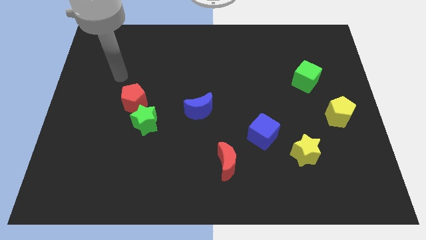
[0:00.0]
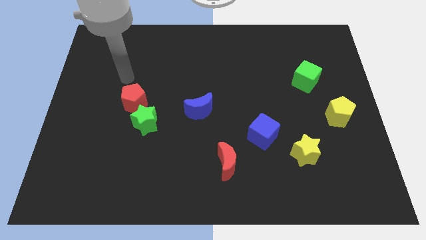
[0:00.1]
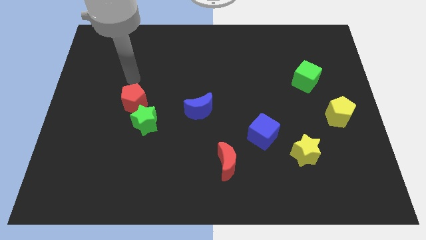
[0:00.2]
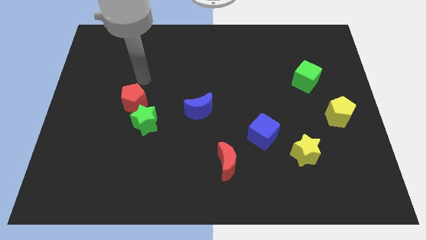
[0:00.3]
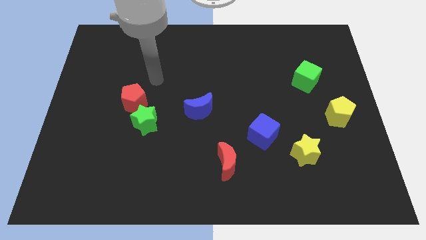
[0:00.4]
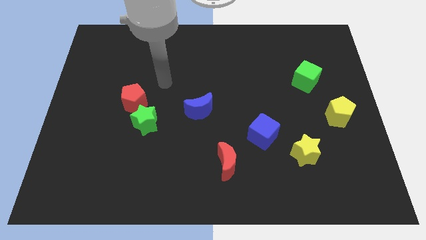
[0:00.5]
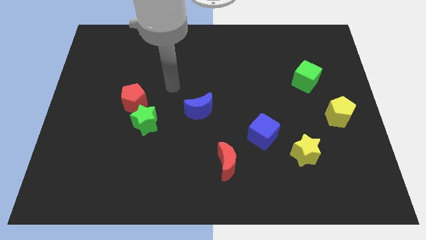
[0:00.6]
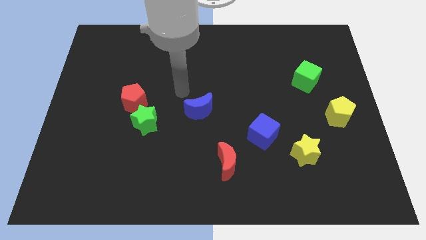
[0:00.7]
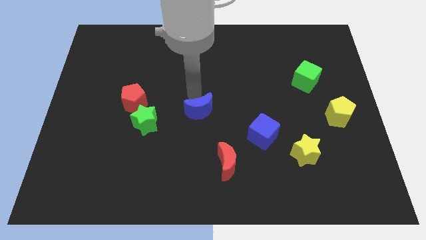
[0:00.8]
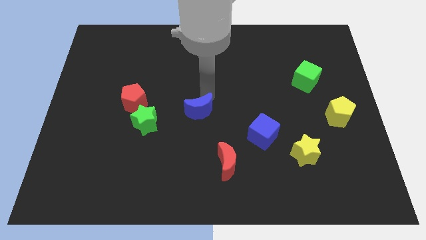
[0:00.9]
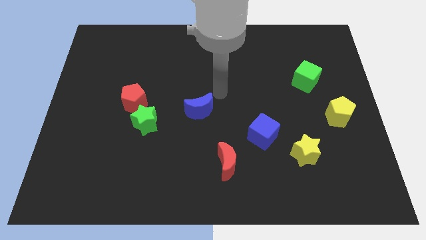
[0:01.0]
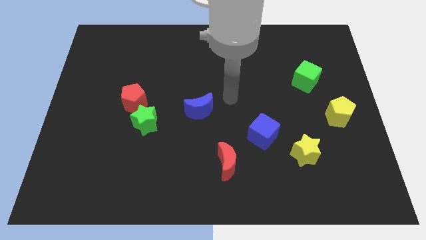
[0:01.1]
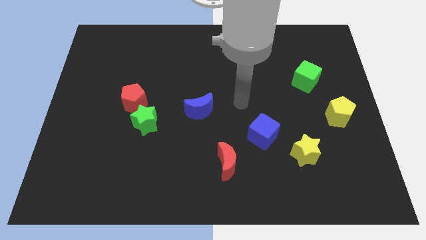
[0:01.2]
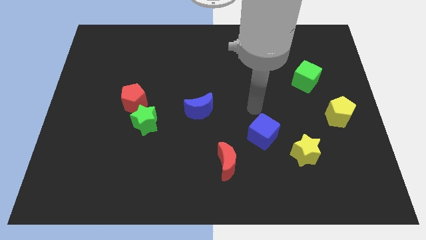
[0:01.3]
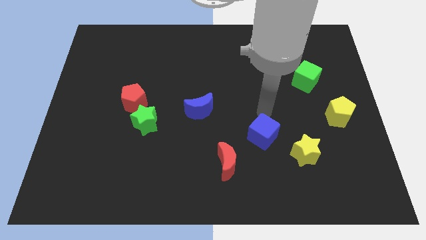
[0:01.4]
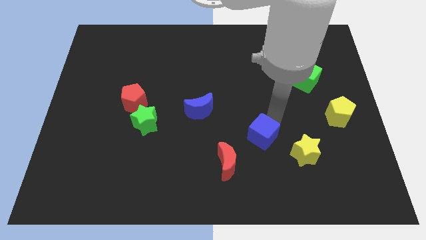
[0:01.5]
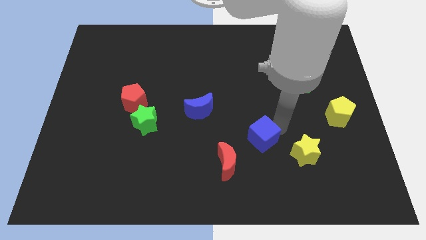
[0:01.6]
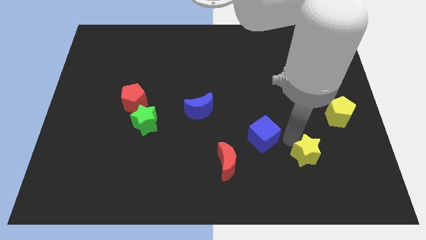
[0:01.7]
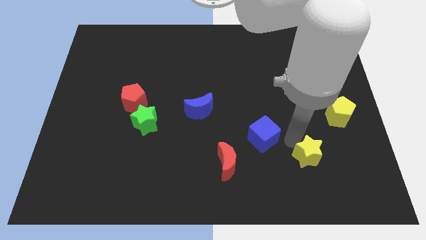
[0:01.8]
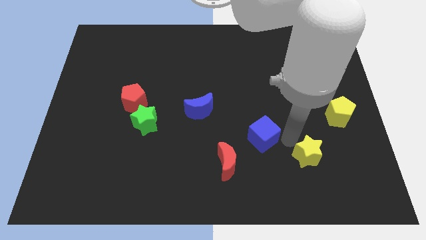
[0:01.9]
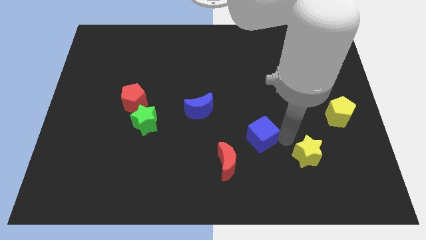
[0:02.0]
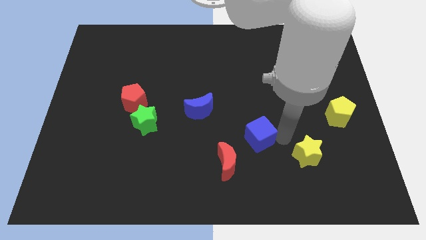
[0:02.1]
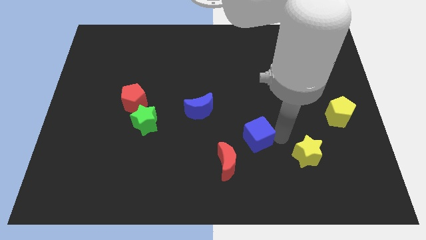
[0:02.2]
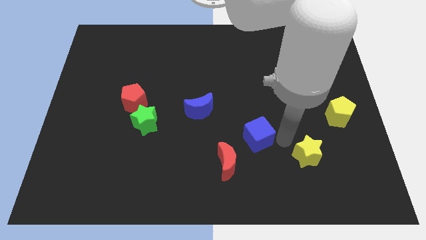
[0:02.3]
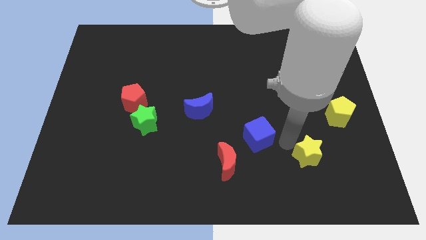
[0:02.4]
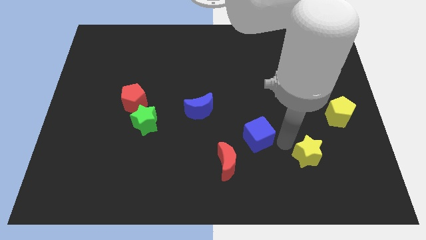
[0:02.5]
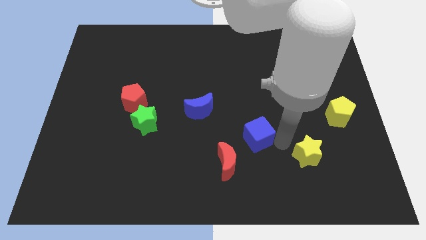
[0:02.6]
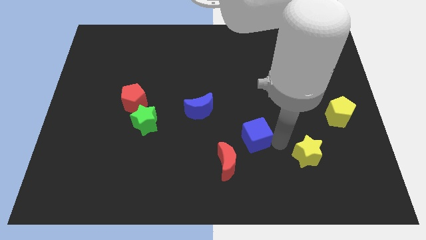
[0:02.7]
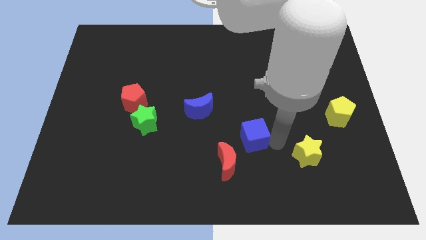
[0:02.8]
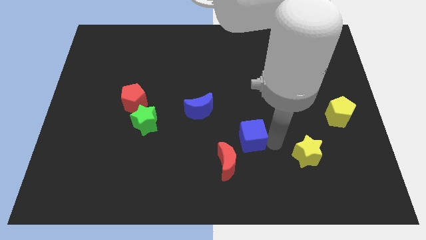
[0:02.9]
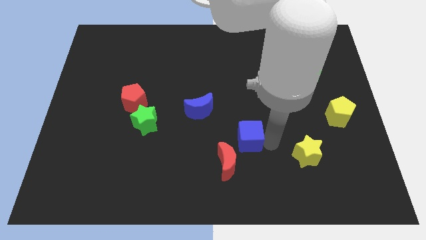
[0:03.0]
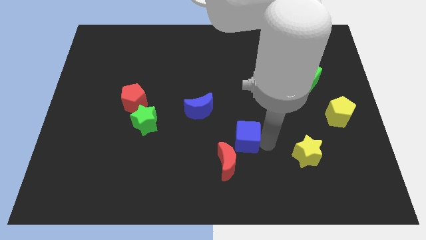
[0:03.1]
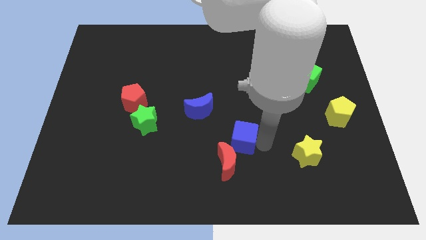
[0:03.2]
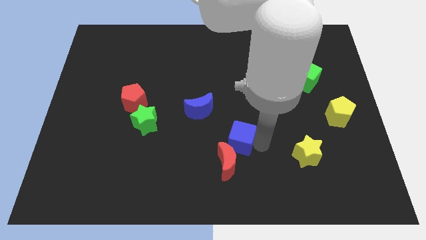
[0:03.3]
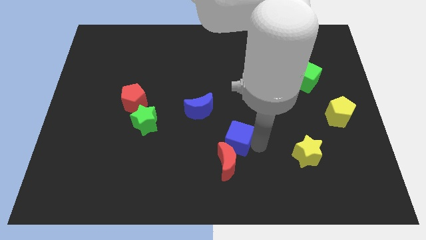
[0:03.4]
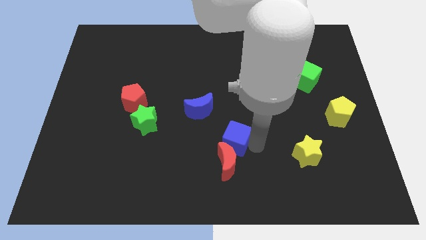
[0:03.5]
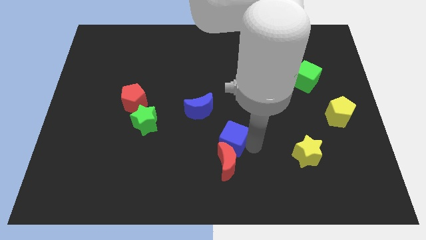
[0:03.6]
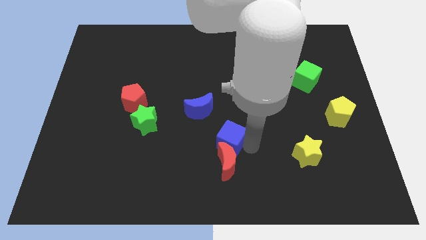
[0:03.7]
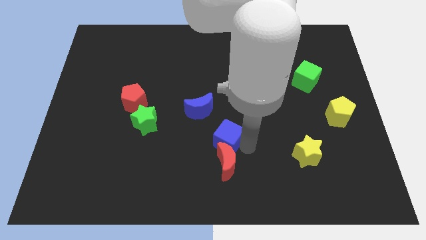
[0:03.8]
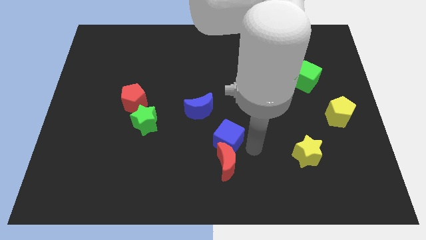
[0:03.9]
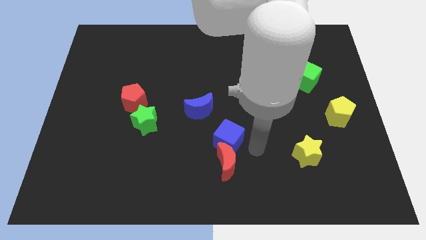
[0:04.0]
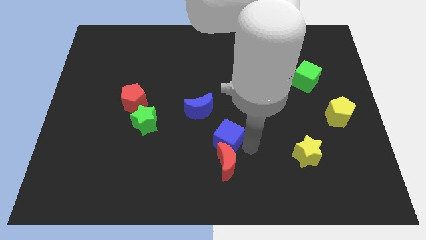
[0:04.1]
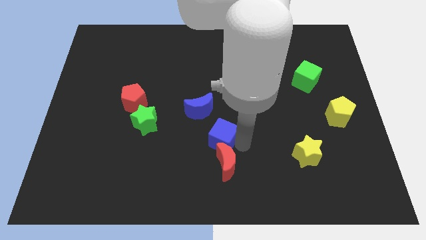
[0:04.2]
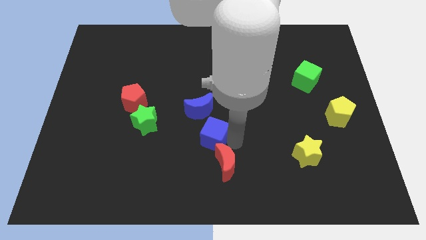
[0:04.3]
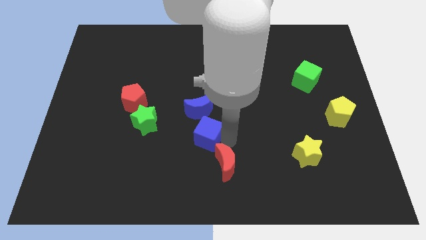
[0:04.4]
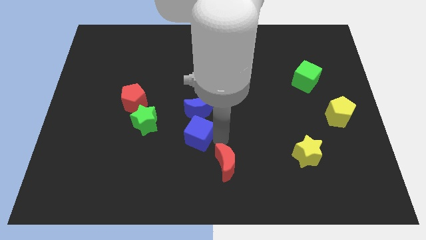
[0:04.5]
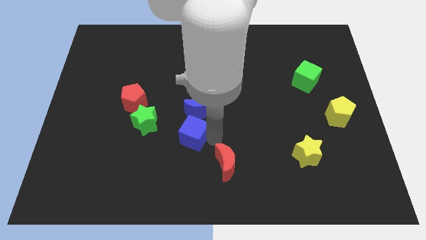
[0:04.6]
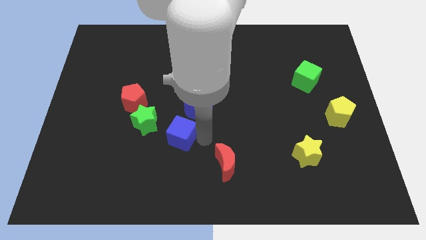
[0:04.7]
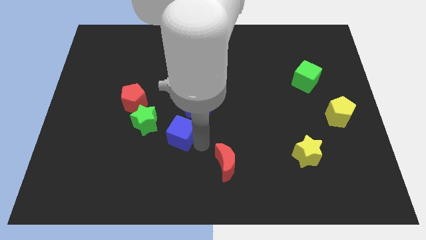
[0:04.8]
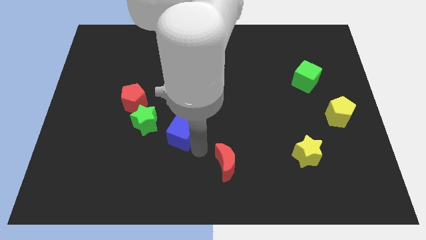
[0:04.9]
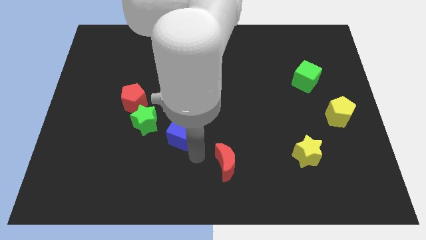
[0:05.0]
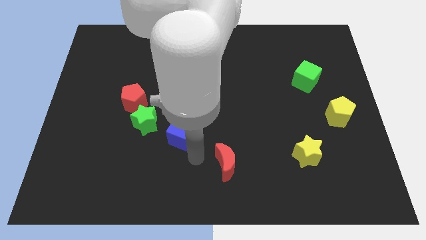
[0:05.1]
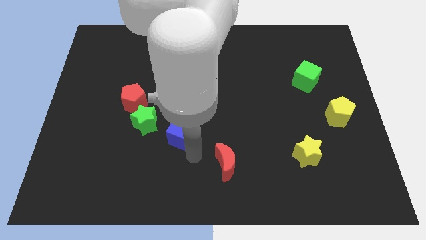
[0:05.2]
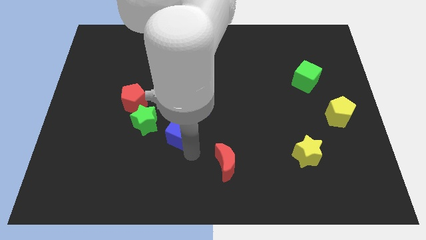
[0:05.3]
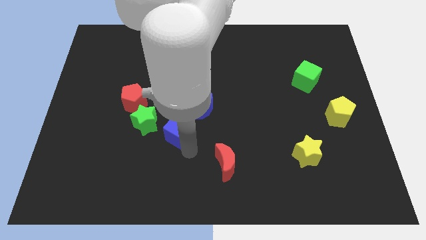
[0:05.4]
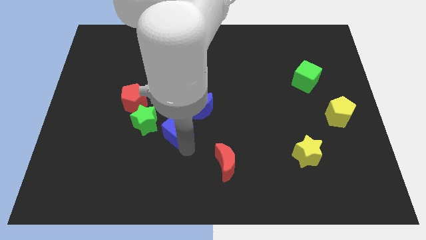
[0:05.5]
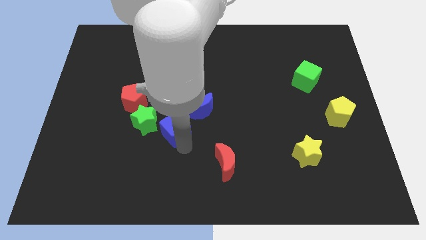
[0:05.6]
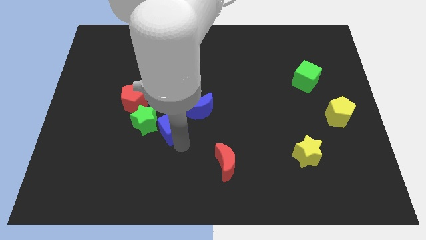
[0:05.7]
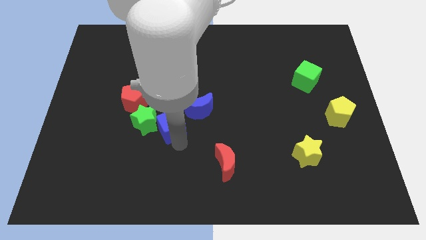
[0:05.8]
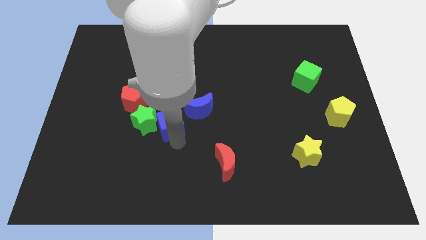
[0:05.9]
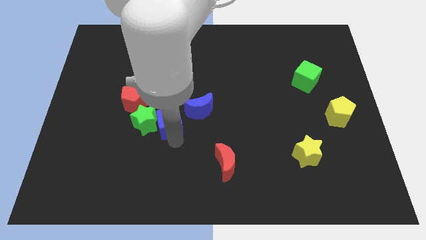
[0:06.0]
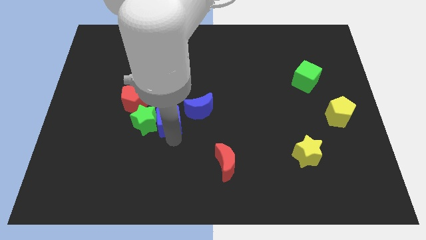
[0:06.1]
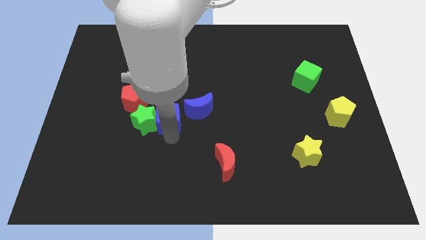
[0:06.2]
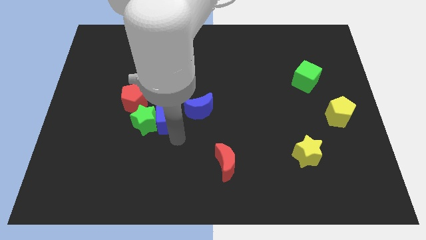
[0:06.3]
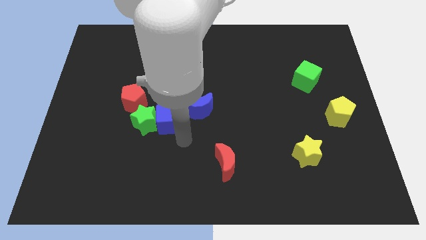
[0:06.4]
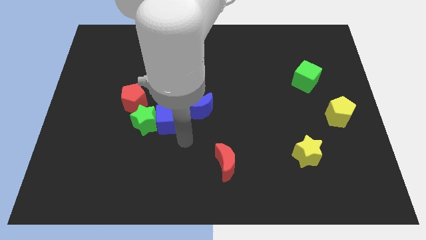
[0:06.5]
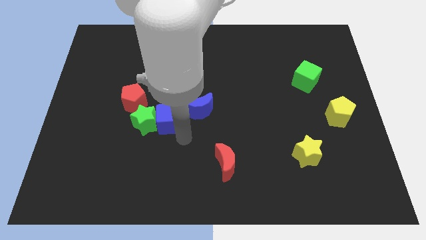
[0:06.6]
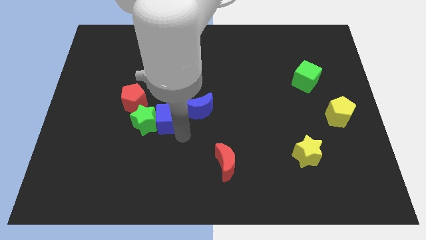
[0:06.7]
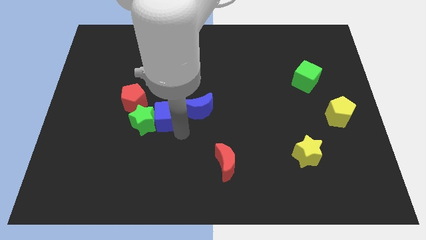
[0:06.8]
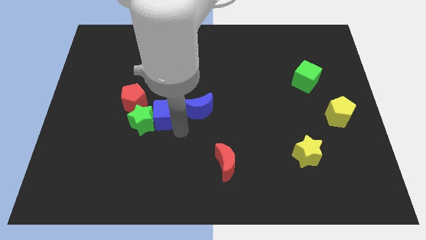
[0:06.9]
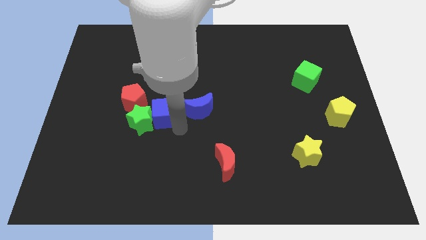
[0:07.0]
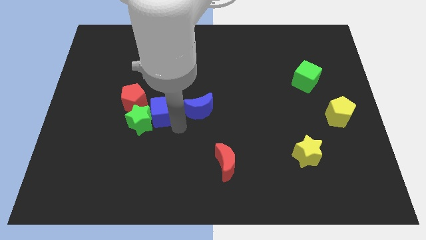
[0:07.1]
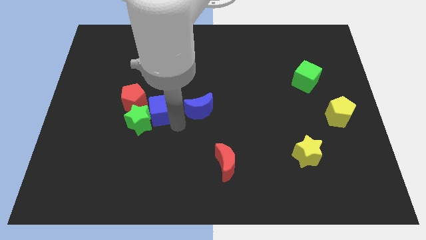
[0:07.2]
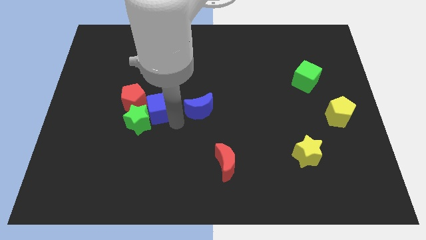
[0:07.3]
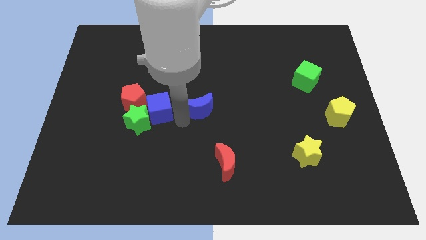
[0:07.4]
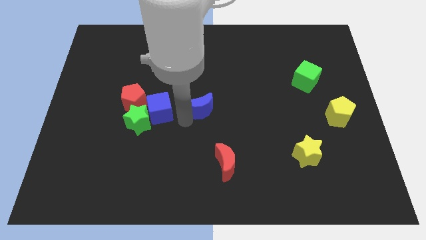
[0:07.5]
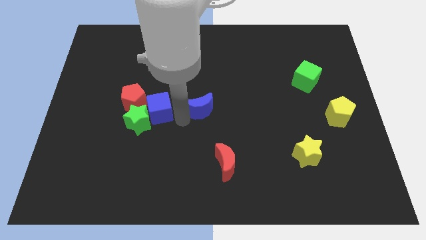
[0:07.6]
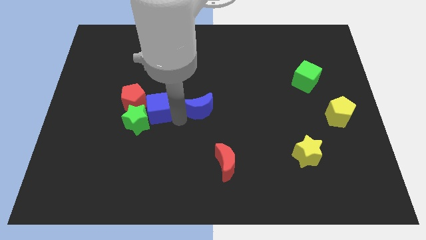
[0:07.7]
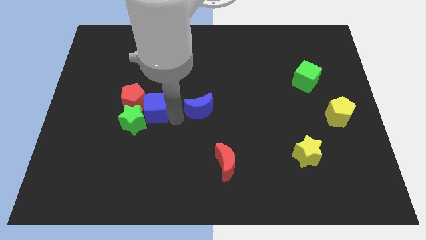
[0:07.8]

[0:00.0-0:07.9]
push the blue cube to the red pentagon
